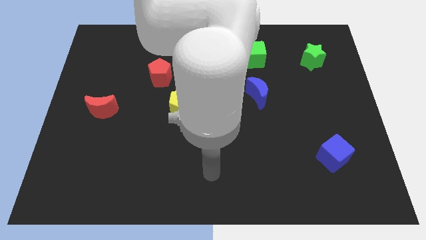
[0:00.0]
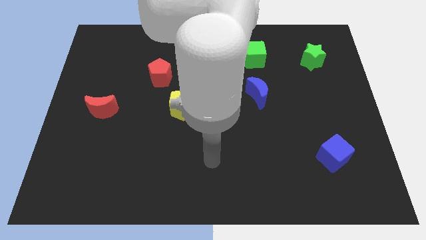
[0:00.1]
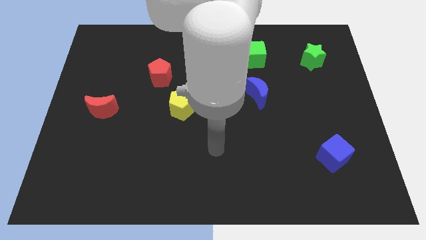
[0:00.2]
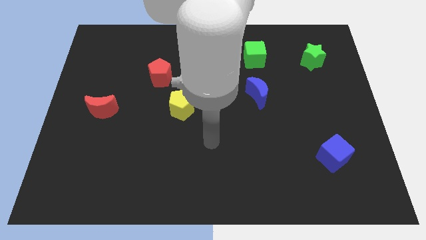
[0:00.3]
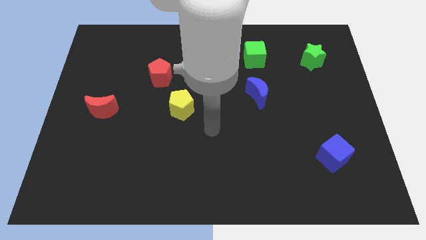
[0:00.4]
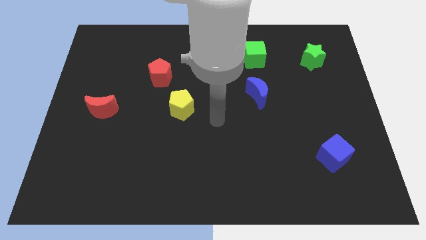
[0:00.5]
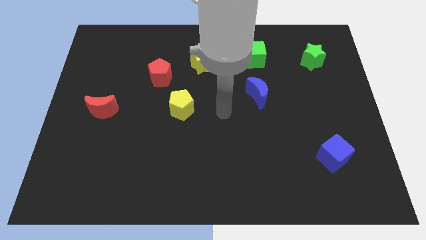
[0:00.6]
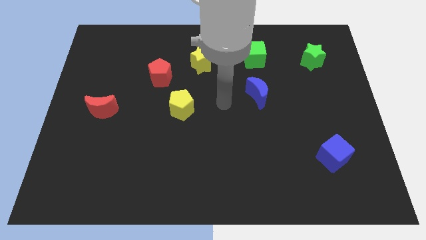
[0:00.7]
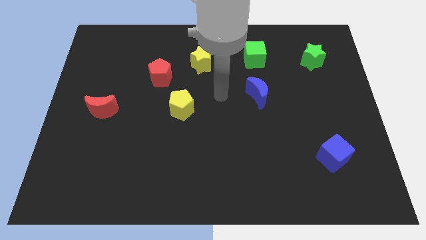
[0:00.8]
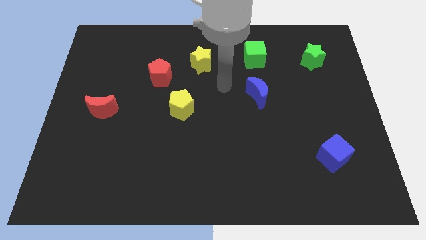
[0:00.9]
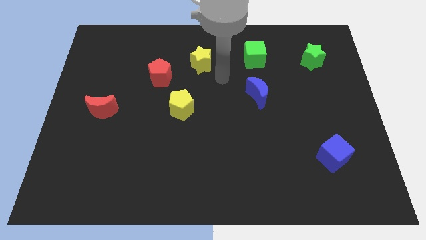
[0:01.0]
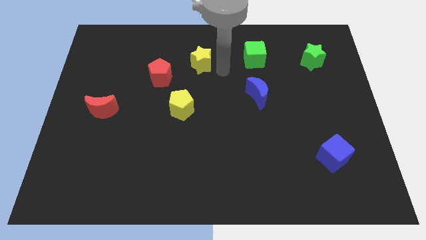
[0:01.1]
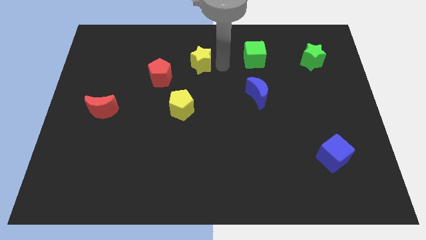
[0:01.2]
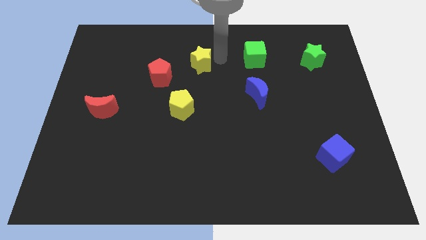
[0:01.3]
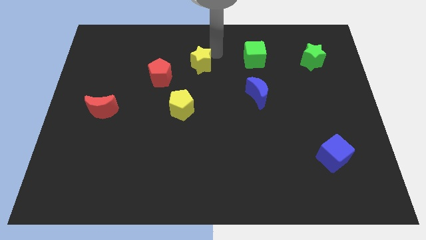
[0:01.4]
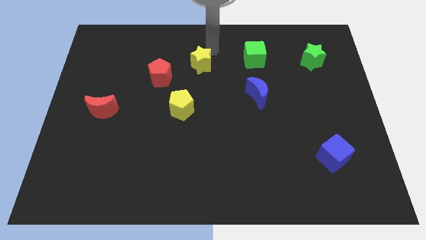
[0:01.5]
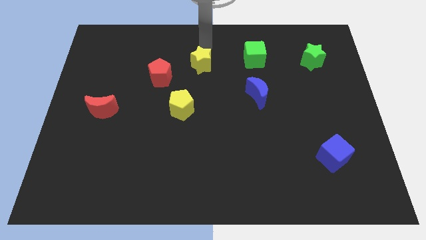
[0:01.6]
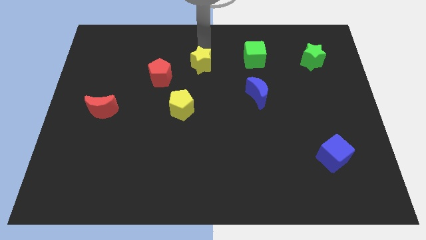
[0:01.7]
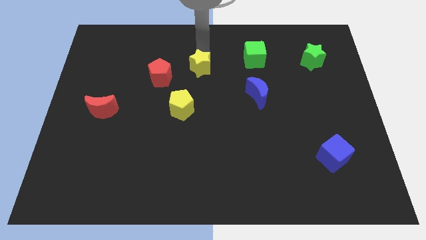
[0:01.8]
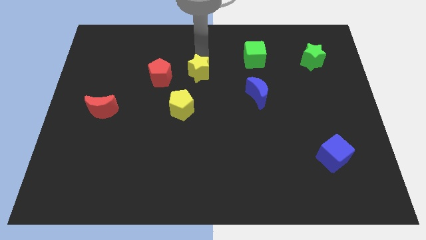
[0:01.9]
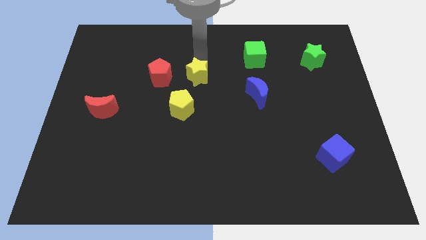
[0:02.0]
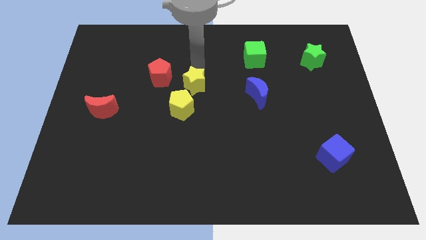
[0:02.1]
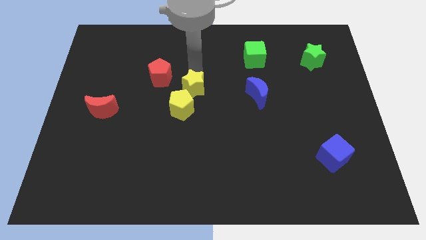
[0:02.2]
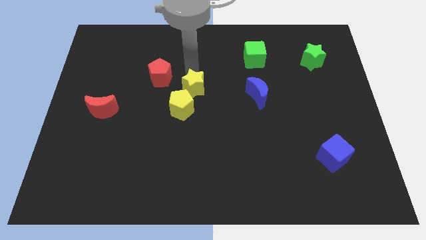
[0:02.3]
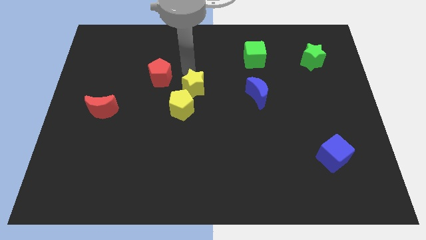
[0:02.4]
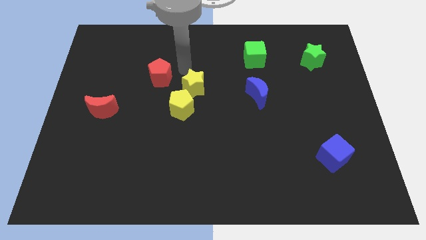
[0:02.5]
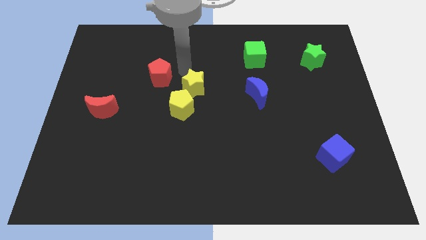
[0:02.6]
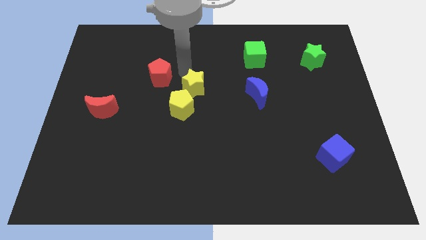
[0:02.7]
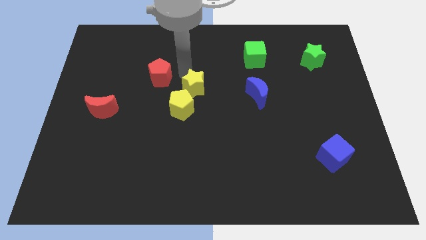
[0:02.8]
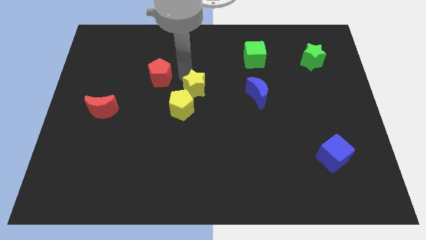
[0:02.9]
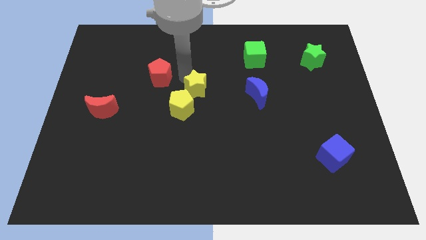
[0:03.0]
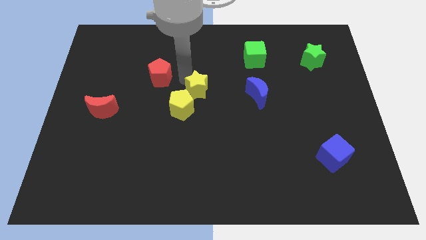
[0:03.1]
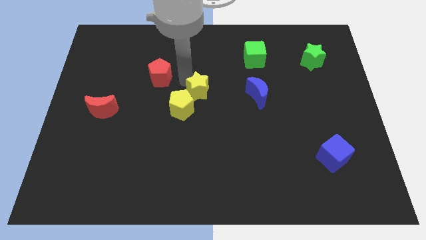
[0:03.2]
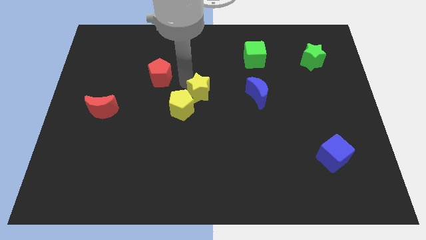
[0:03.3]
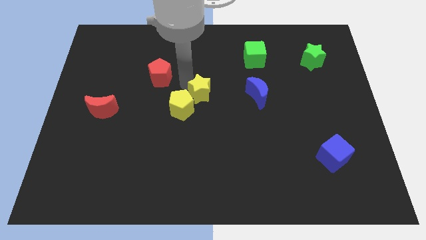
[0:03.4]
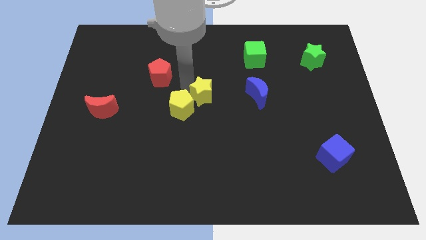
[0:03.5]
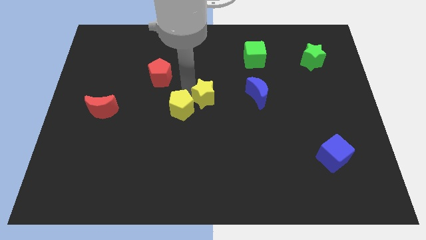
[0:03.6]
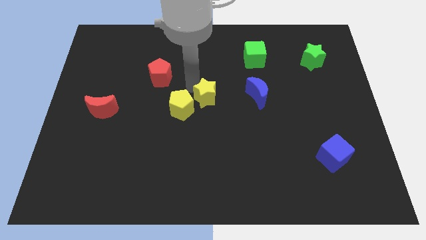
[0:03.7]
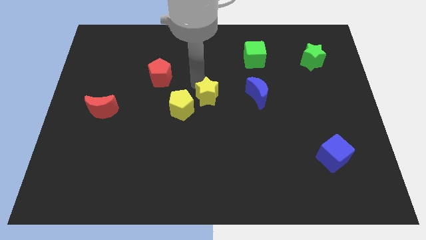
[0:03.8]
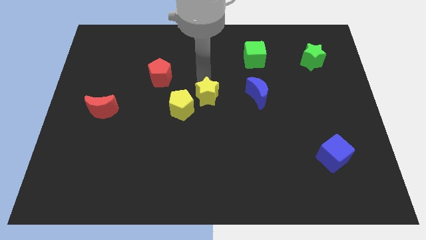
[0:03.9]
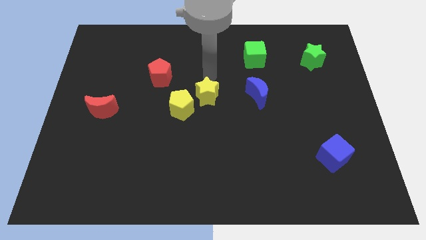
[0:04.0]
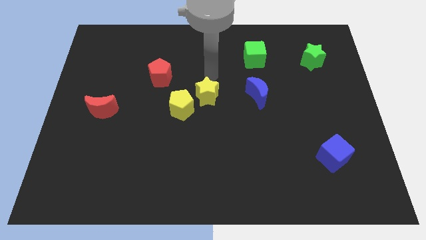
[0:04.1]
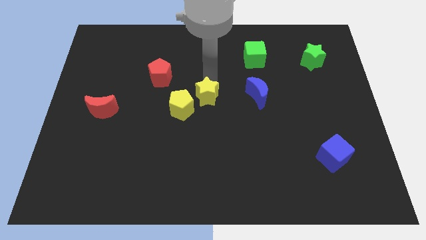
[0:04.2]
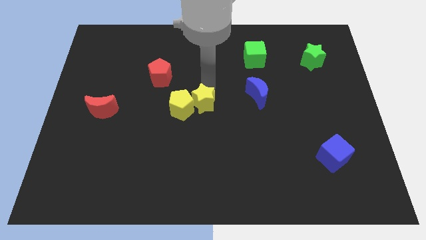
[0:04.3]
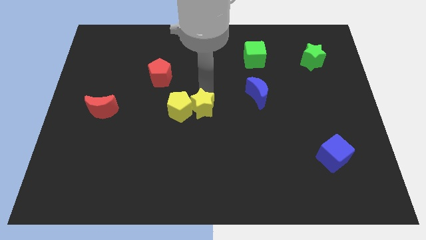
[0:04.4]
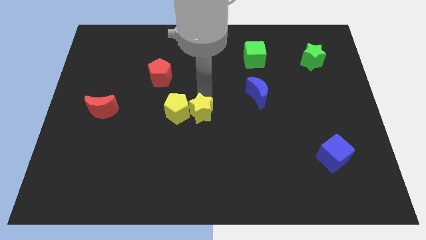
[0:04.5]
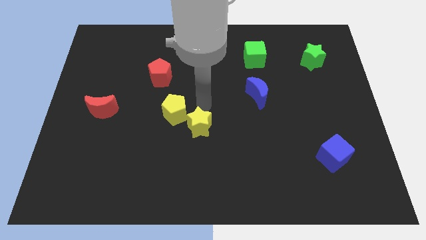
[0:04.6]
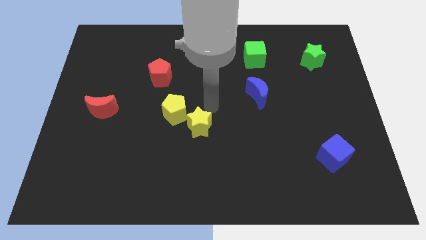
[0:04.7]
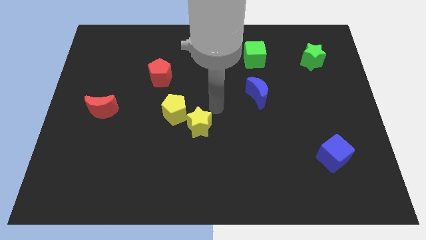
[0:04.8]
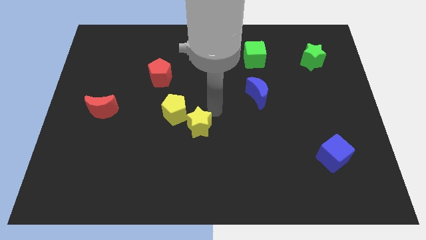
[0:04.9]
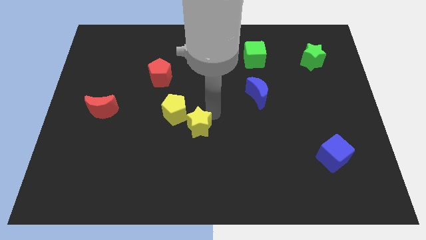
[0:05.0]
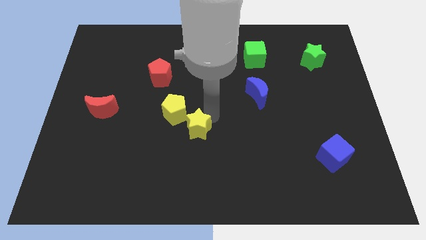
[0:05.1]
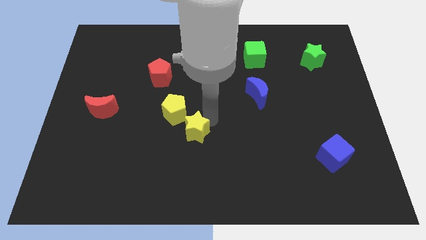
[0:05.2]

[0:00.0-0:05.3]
push the yellow star to the bottom of the yellow pentagon

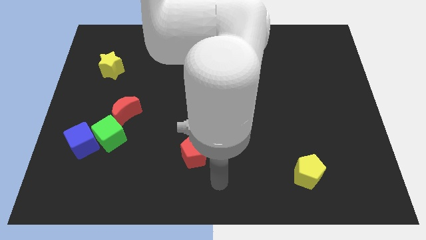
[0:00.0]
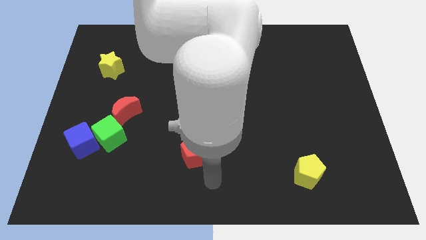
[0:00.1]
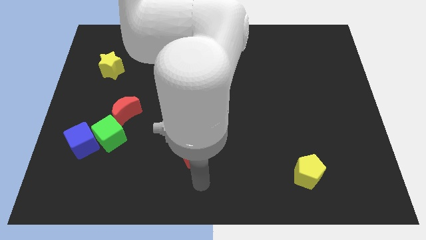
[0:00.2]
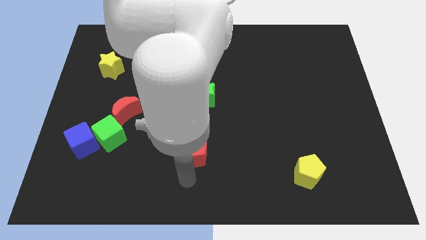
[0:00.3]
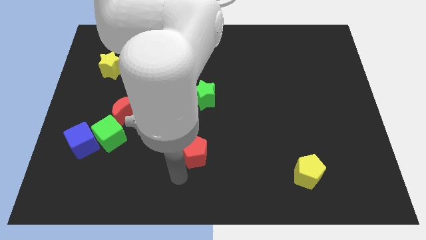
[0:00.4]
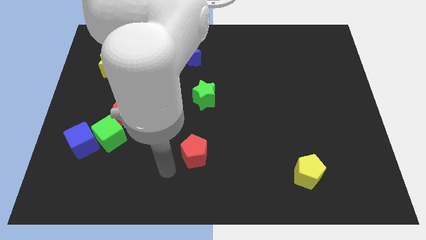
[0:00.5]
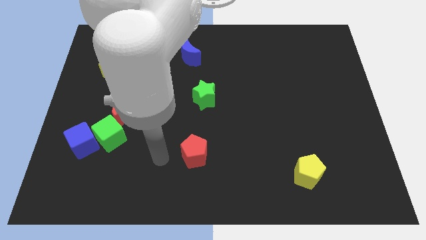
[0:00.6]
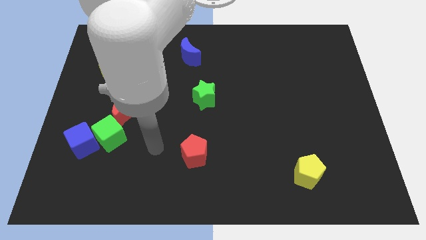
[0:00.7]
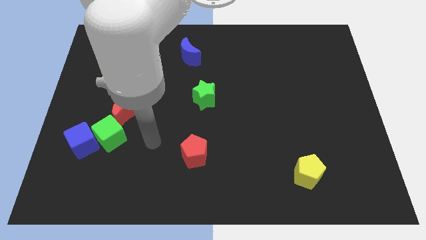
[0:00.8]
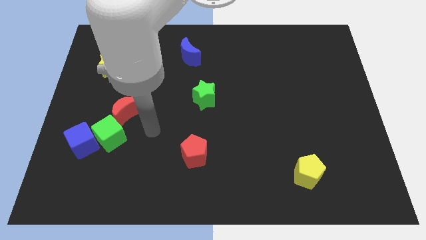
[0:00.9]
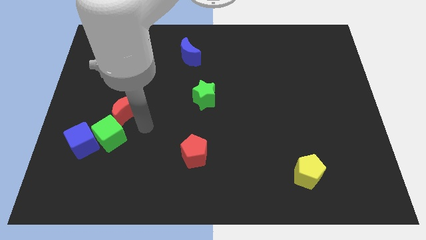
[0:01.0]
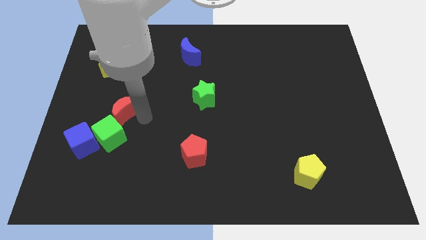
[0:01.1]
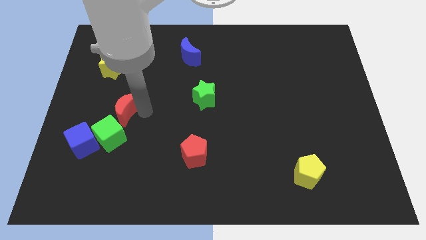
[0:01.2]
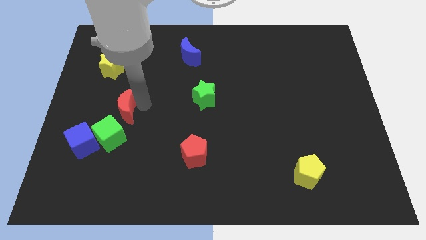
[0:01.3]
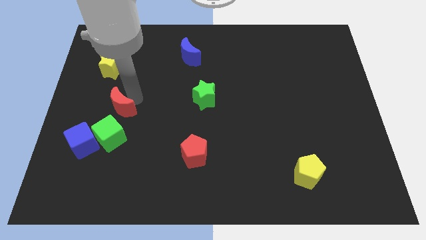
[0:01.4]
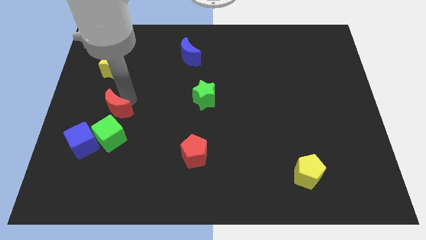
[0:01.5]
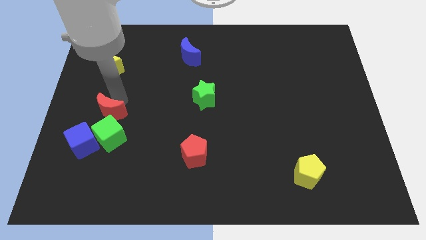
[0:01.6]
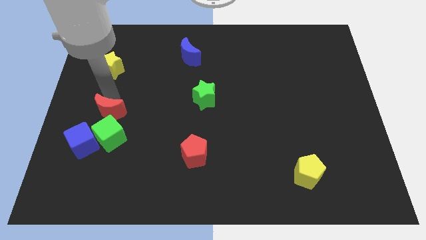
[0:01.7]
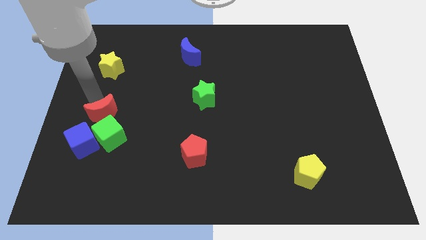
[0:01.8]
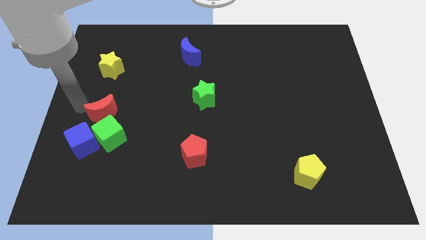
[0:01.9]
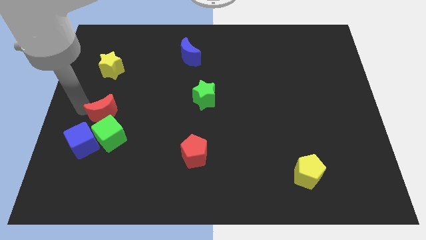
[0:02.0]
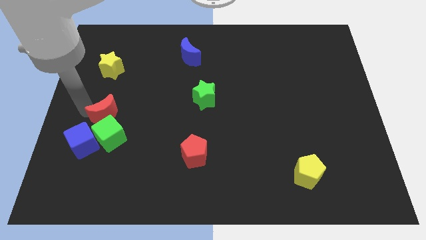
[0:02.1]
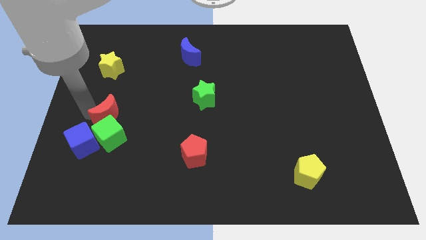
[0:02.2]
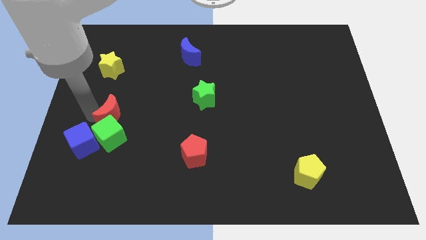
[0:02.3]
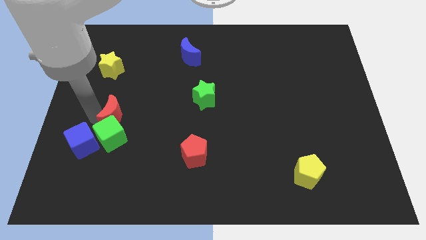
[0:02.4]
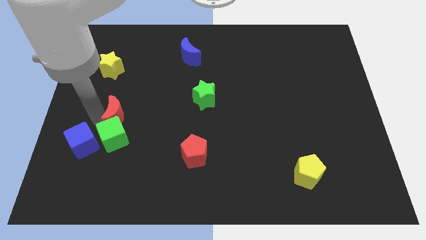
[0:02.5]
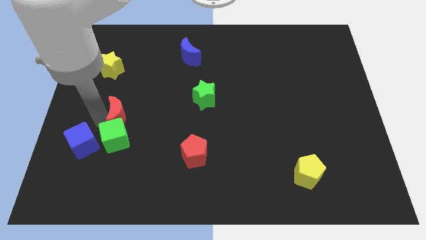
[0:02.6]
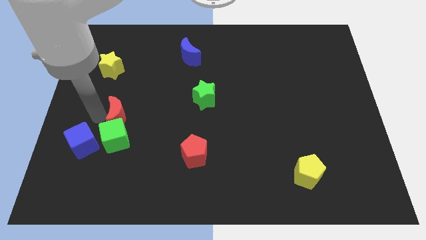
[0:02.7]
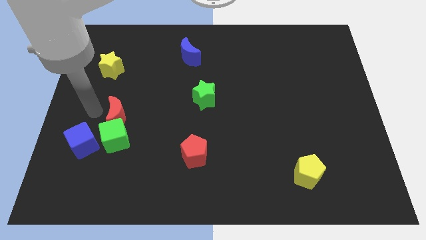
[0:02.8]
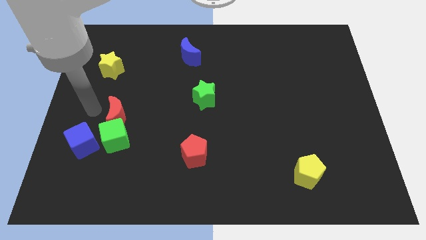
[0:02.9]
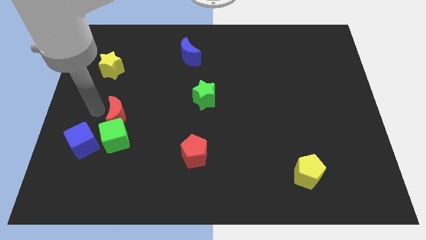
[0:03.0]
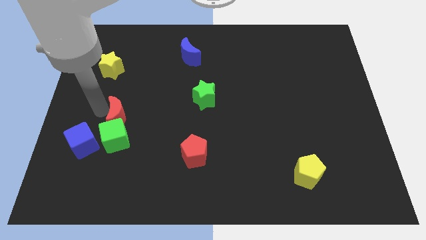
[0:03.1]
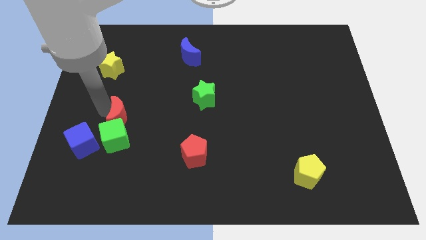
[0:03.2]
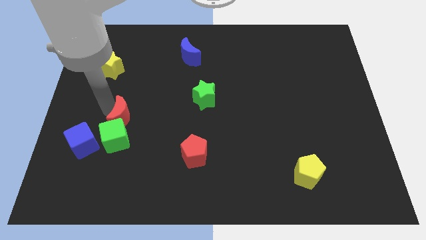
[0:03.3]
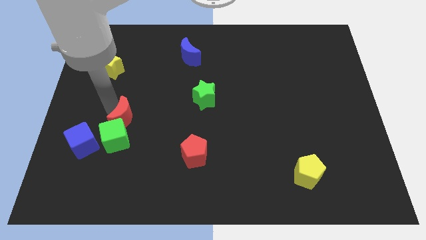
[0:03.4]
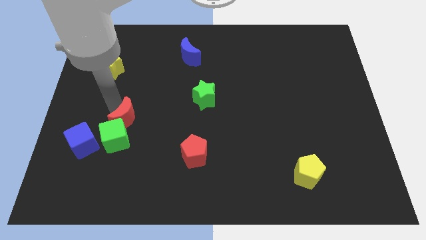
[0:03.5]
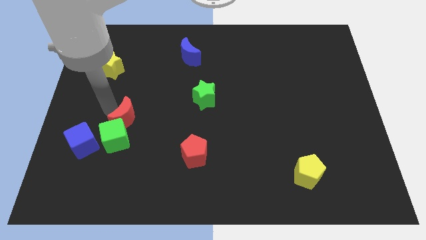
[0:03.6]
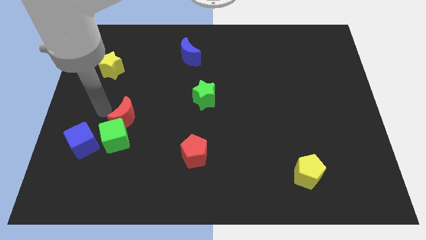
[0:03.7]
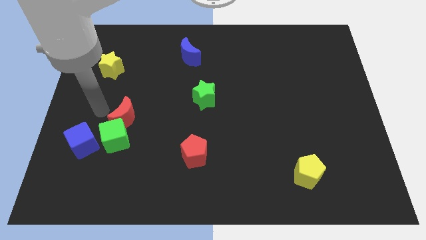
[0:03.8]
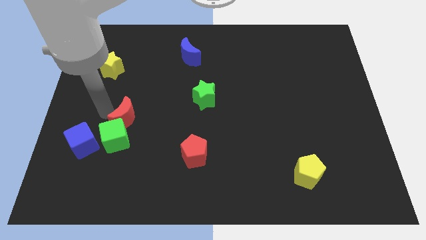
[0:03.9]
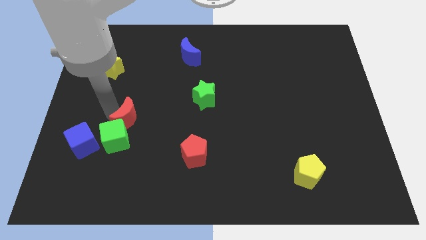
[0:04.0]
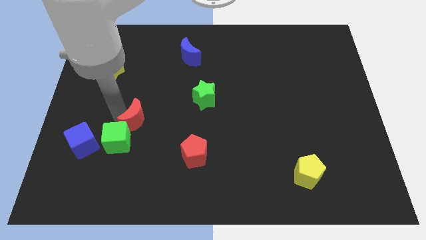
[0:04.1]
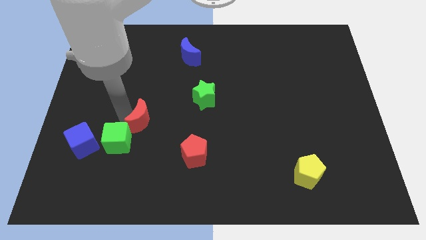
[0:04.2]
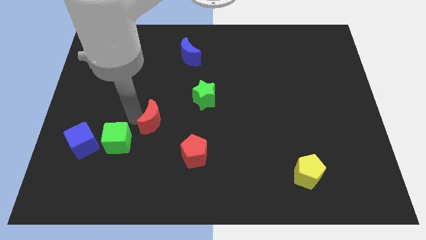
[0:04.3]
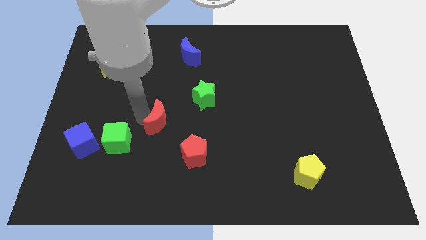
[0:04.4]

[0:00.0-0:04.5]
put the red moon diagonally up and to the left of the red pentagon
